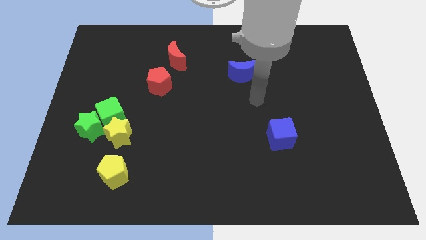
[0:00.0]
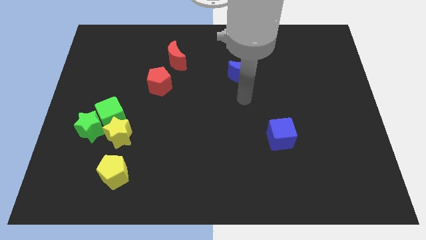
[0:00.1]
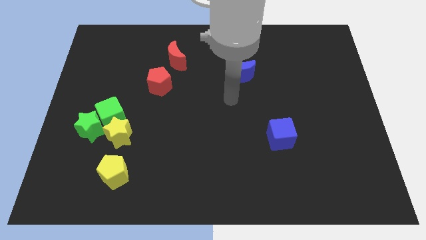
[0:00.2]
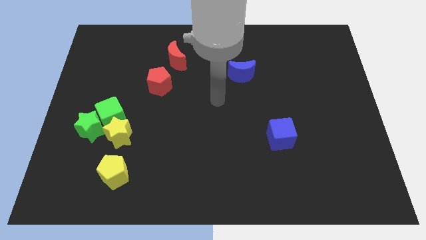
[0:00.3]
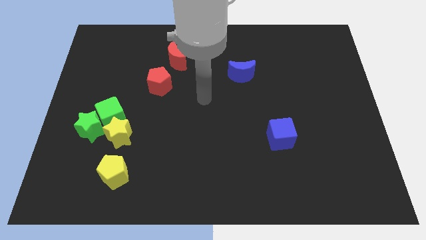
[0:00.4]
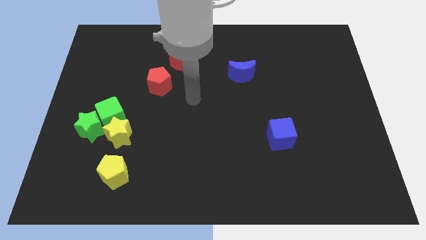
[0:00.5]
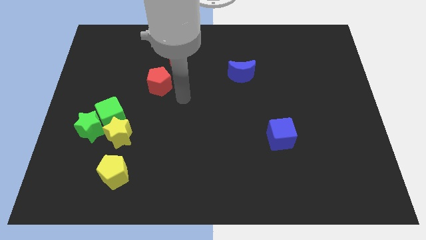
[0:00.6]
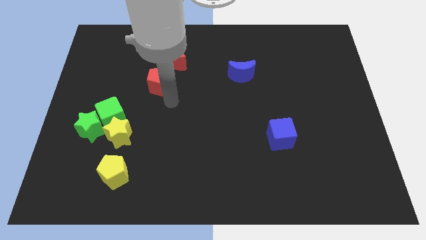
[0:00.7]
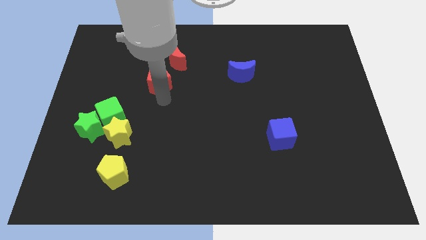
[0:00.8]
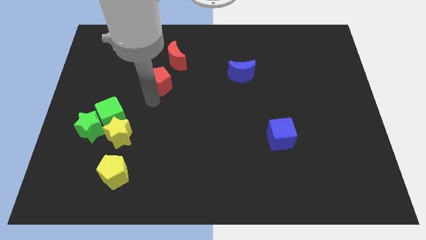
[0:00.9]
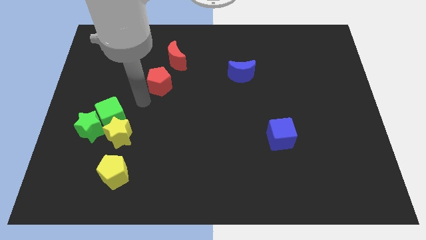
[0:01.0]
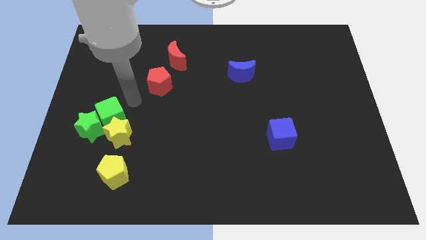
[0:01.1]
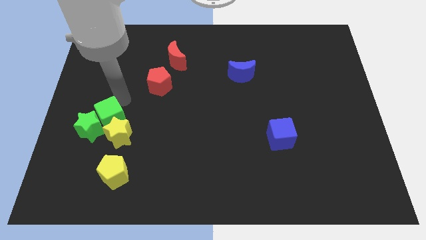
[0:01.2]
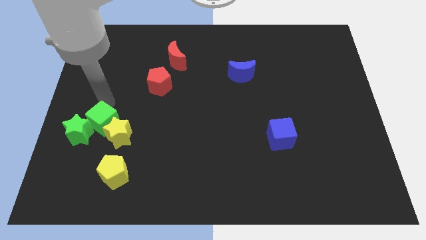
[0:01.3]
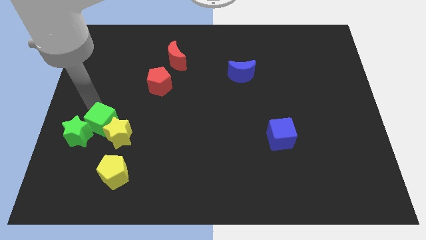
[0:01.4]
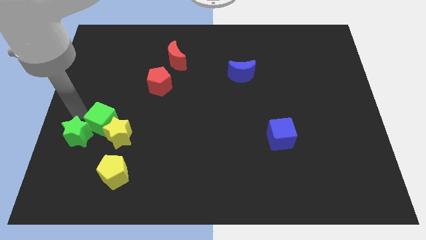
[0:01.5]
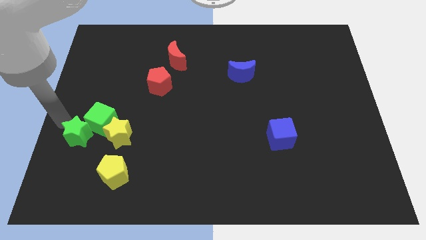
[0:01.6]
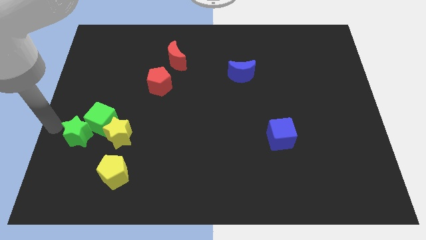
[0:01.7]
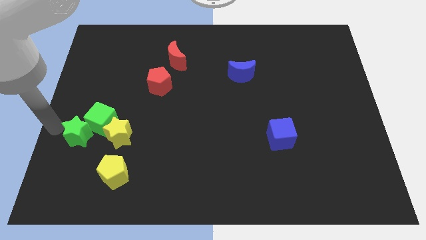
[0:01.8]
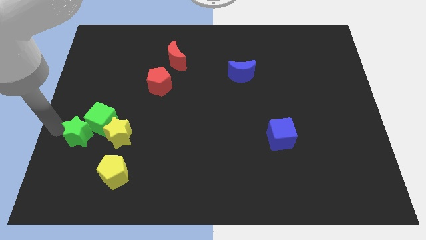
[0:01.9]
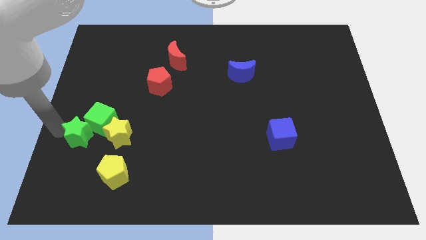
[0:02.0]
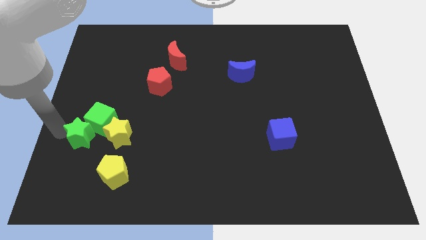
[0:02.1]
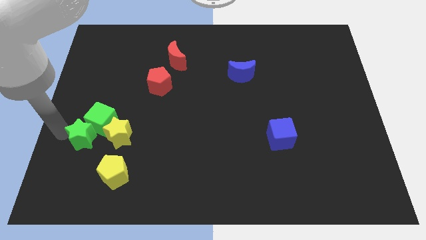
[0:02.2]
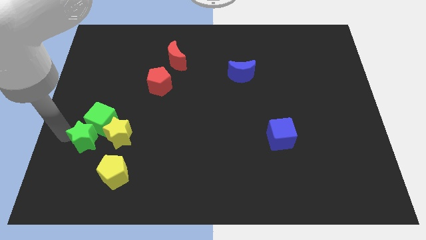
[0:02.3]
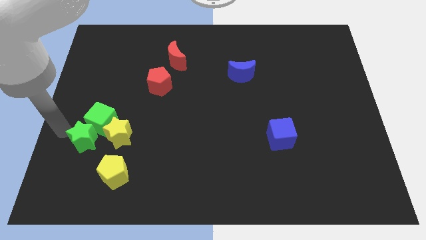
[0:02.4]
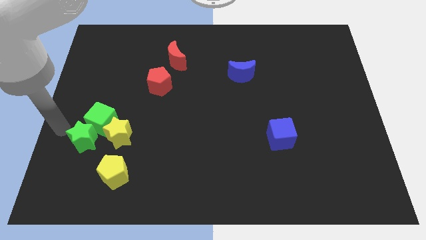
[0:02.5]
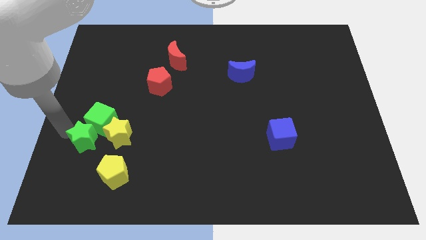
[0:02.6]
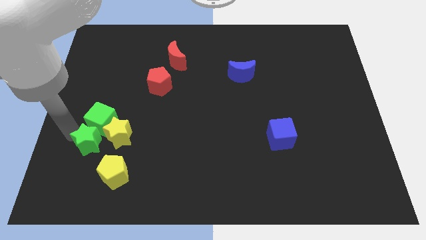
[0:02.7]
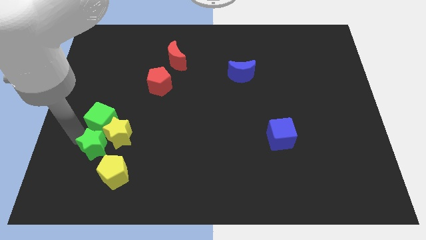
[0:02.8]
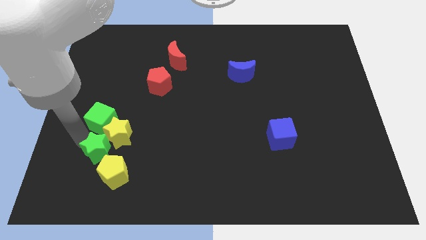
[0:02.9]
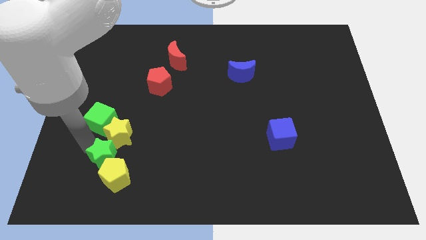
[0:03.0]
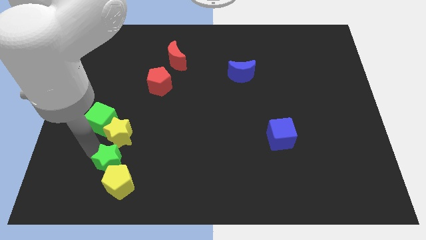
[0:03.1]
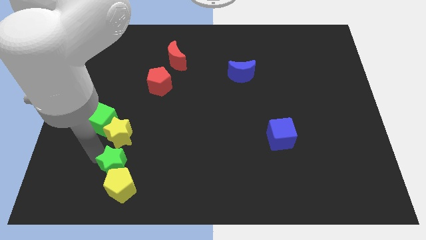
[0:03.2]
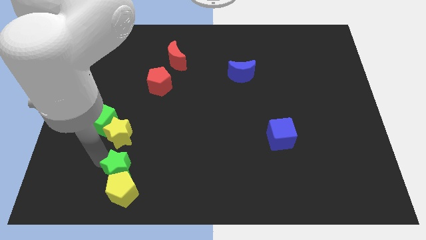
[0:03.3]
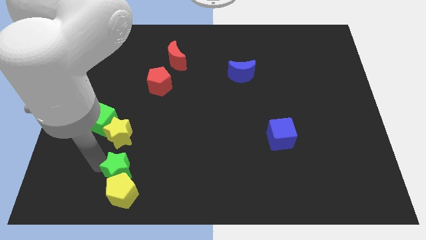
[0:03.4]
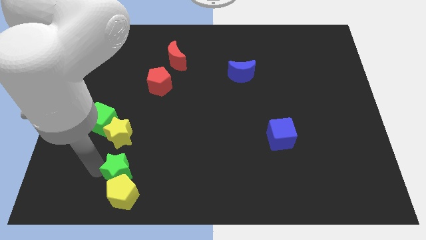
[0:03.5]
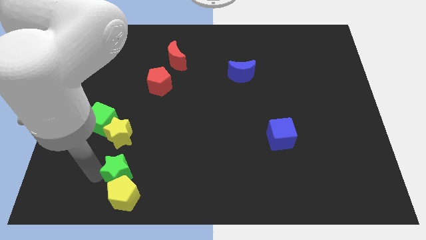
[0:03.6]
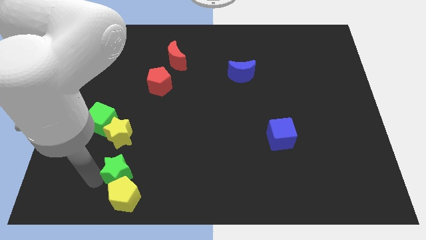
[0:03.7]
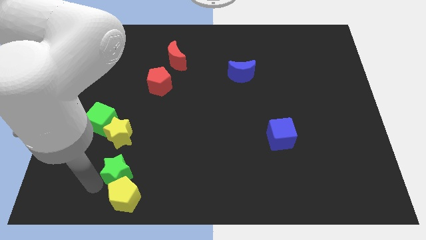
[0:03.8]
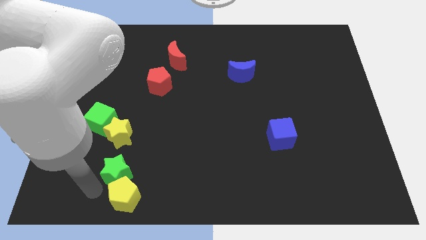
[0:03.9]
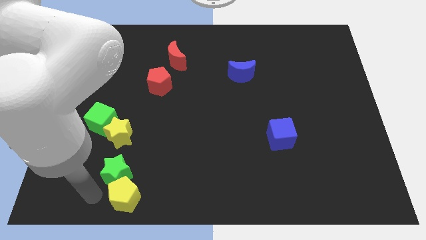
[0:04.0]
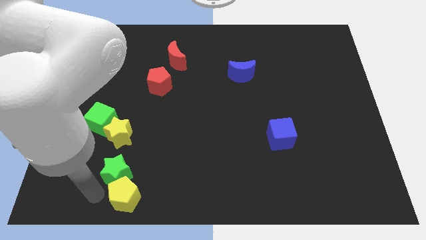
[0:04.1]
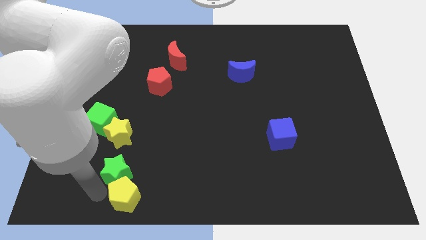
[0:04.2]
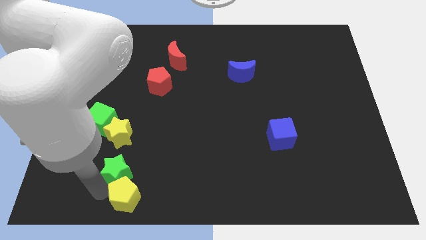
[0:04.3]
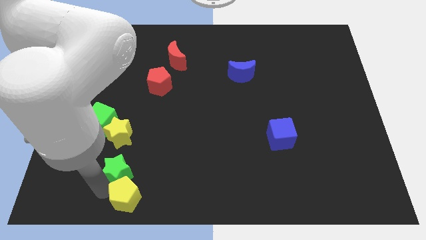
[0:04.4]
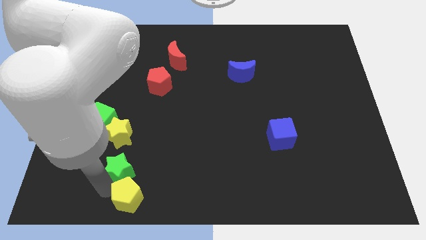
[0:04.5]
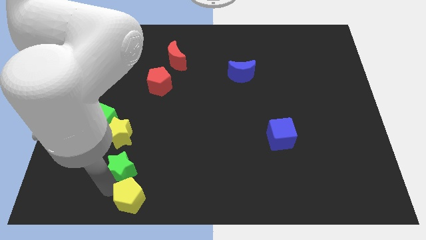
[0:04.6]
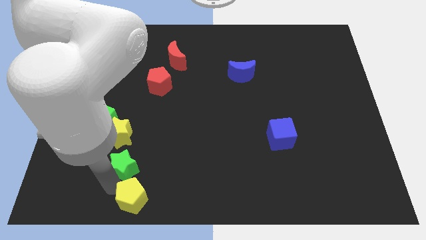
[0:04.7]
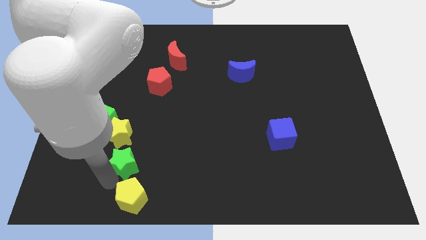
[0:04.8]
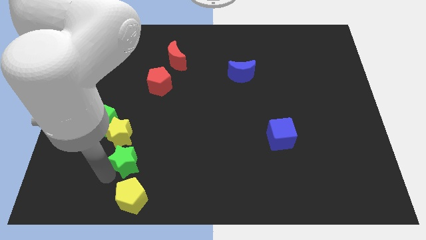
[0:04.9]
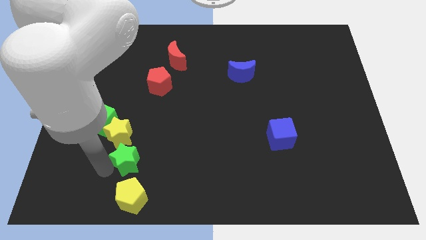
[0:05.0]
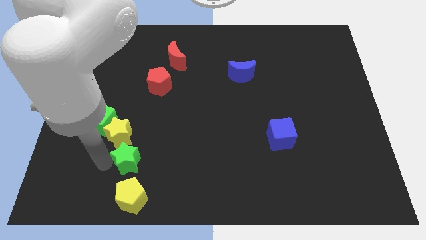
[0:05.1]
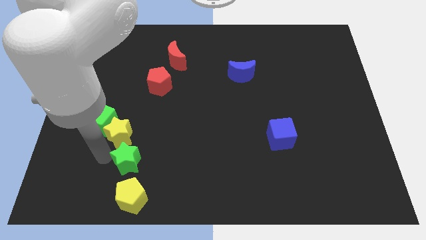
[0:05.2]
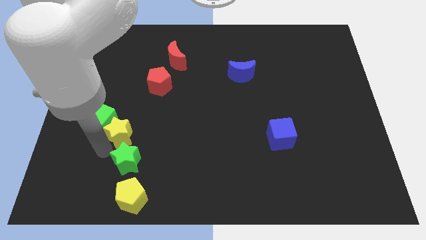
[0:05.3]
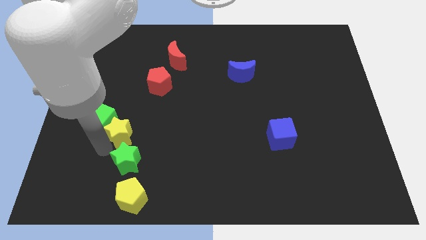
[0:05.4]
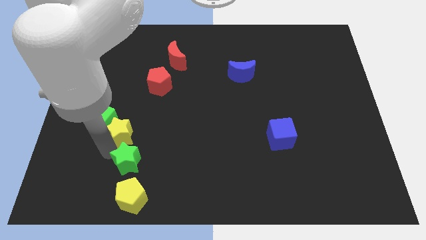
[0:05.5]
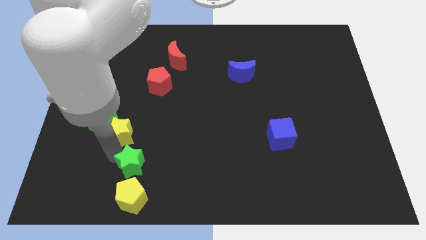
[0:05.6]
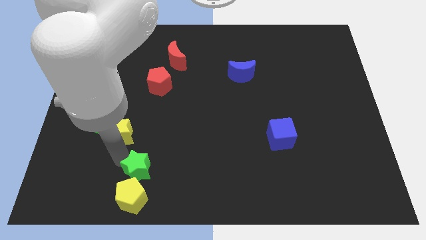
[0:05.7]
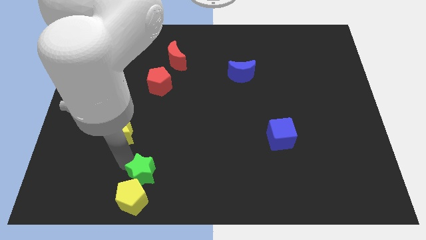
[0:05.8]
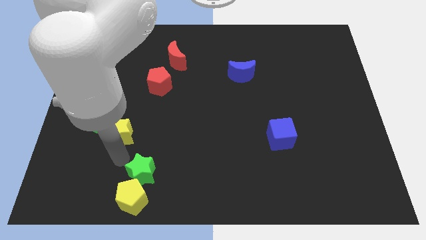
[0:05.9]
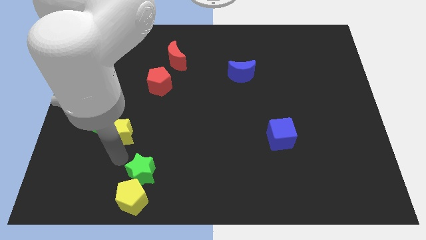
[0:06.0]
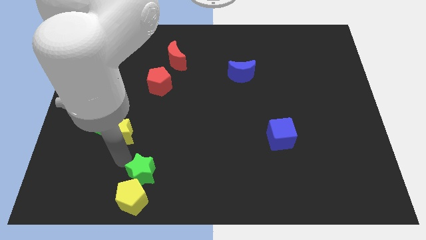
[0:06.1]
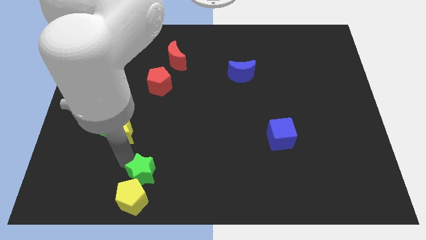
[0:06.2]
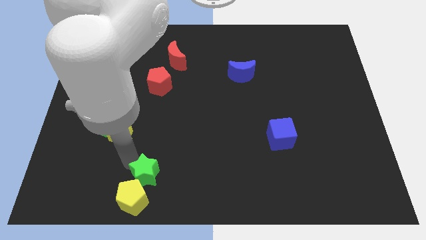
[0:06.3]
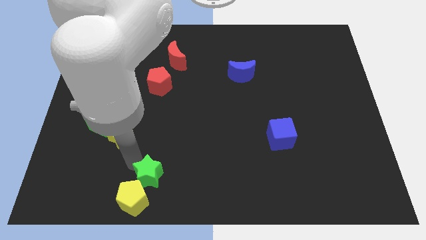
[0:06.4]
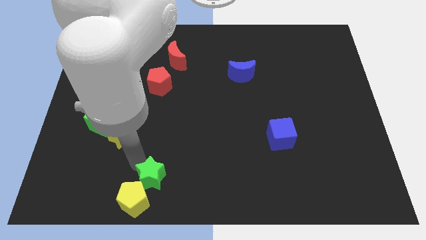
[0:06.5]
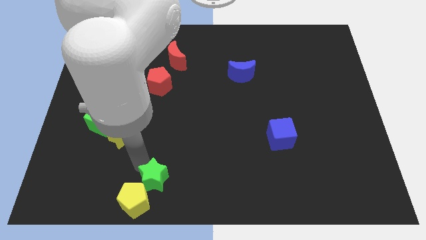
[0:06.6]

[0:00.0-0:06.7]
put the green star to the bottom side

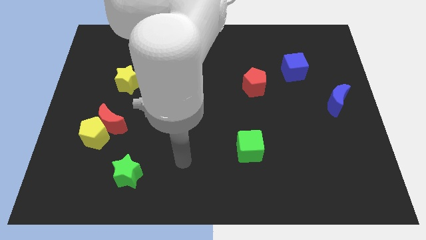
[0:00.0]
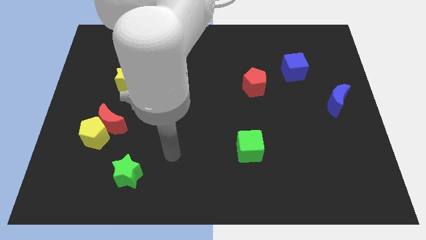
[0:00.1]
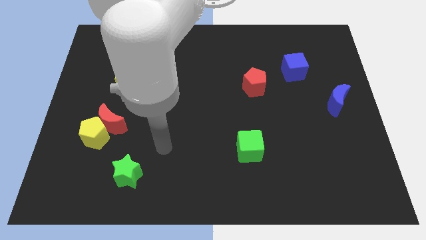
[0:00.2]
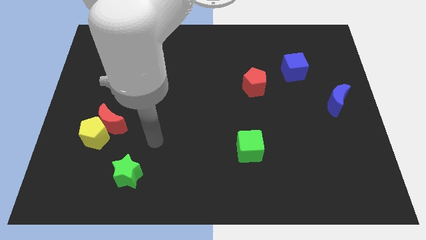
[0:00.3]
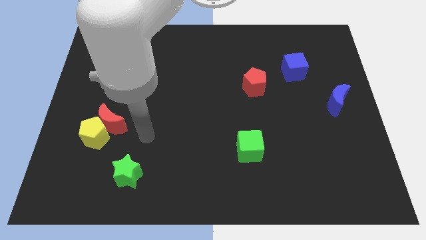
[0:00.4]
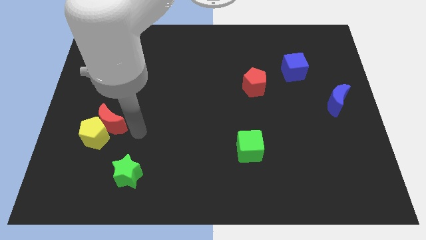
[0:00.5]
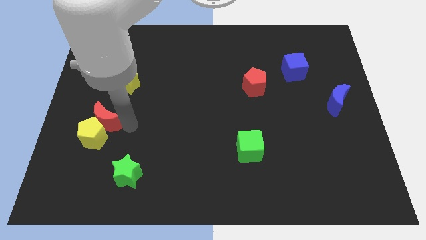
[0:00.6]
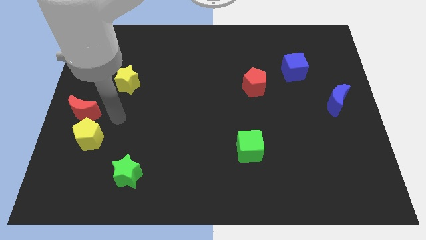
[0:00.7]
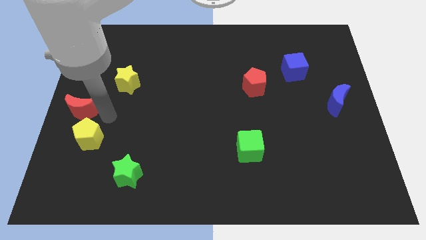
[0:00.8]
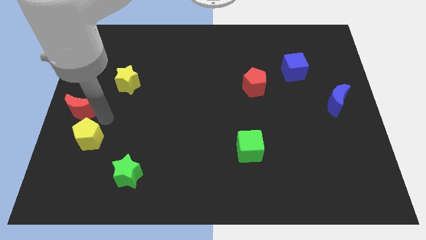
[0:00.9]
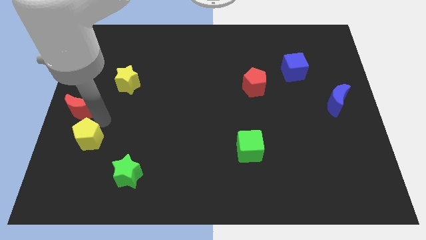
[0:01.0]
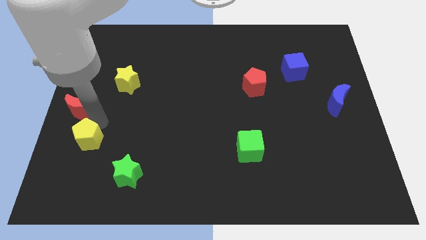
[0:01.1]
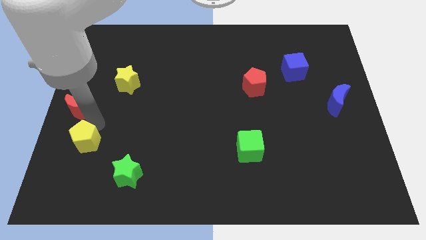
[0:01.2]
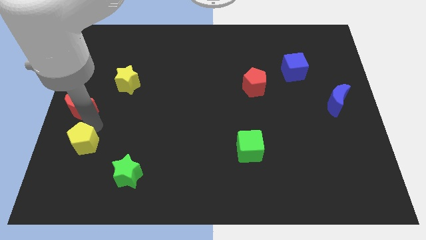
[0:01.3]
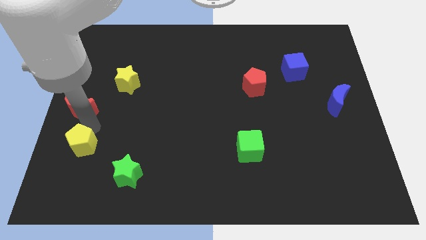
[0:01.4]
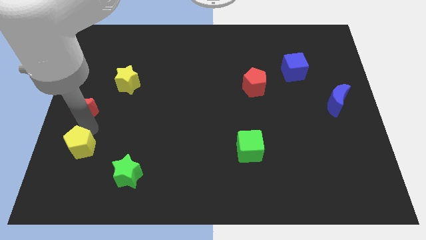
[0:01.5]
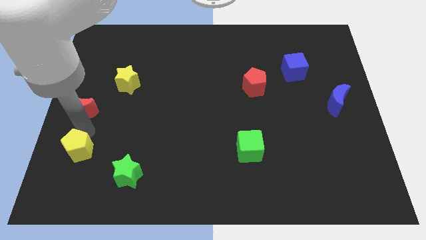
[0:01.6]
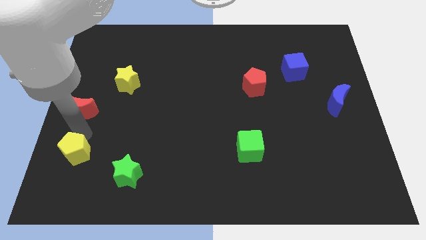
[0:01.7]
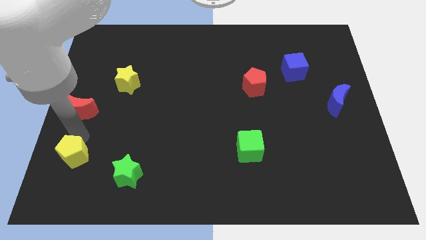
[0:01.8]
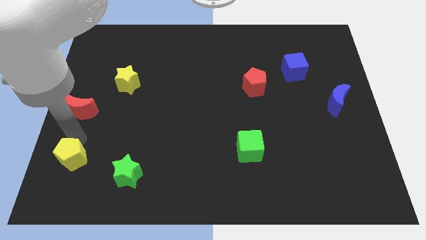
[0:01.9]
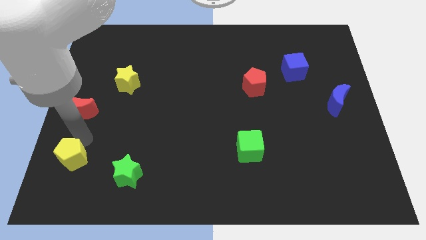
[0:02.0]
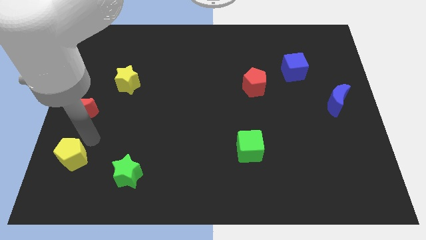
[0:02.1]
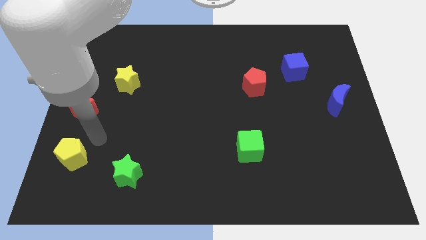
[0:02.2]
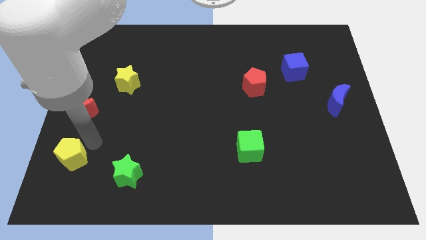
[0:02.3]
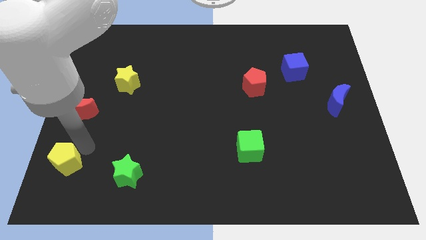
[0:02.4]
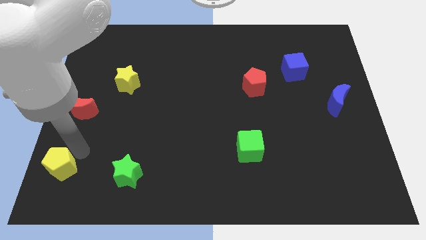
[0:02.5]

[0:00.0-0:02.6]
push the yellow pentagon to the bottom left corner
